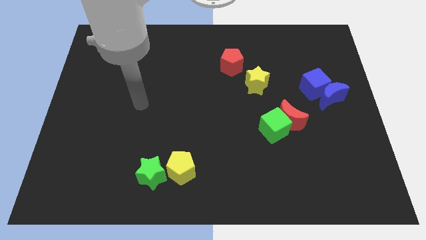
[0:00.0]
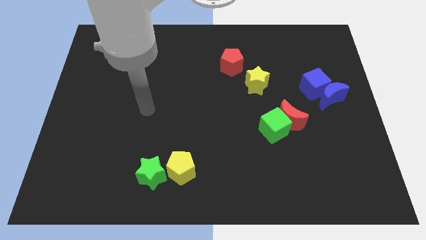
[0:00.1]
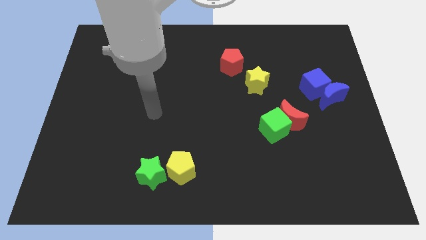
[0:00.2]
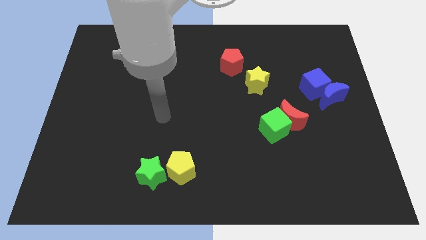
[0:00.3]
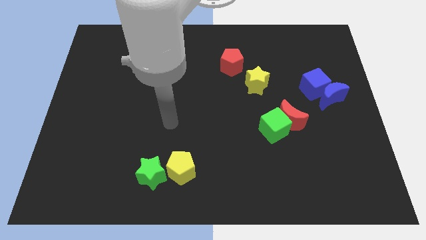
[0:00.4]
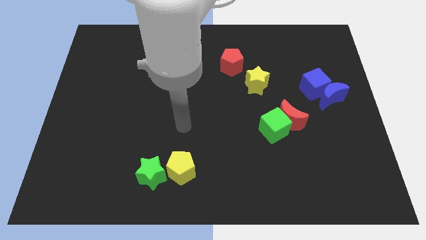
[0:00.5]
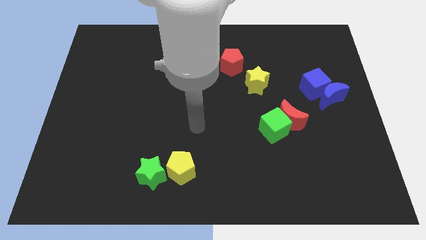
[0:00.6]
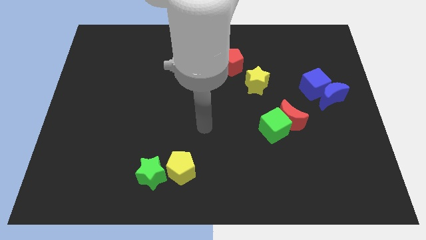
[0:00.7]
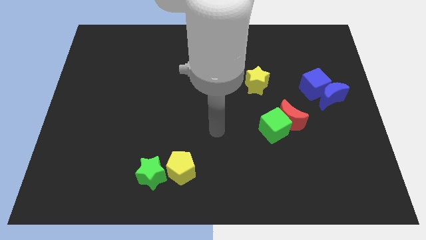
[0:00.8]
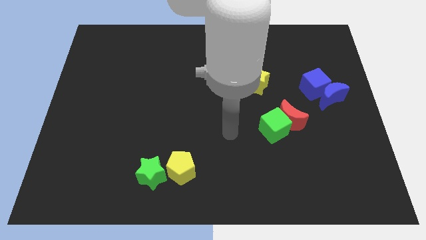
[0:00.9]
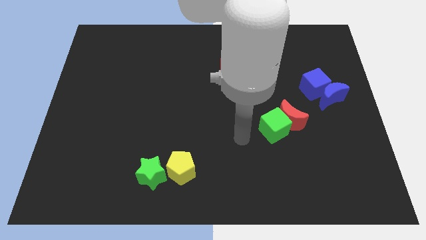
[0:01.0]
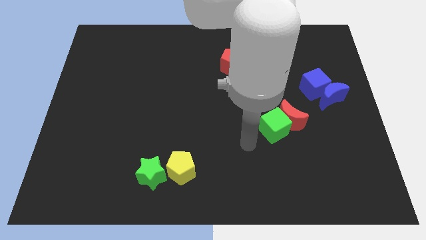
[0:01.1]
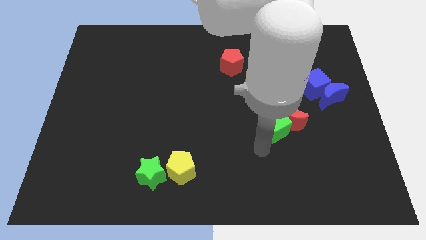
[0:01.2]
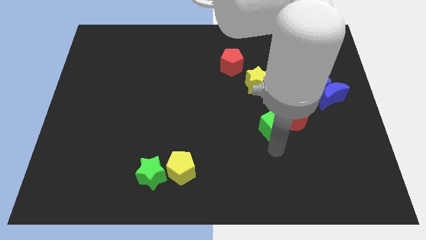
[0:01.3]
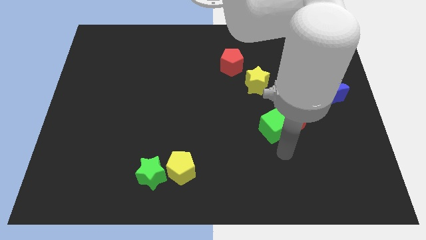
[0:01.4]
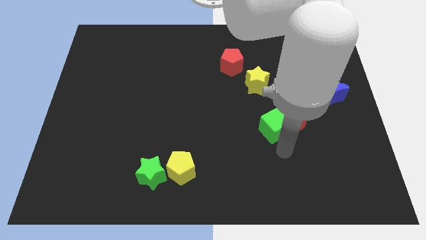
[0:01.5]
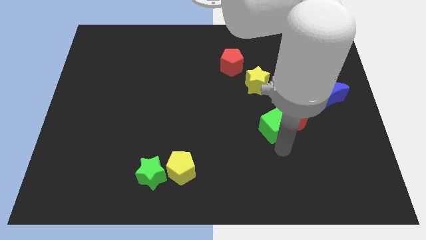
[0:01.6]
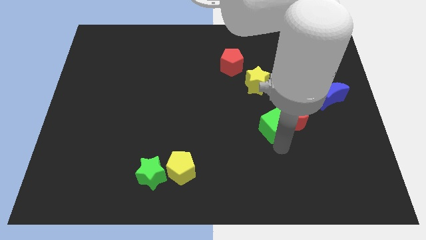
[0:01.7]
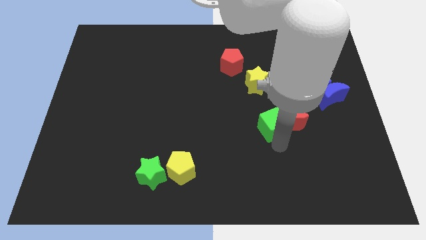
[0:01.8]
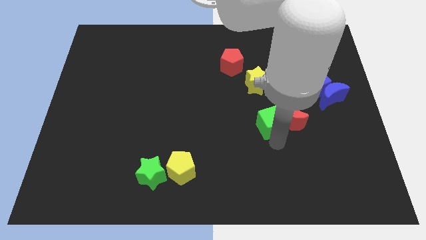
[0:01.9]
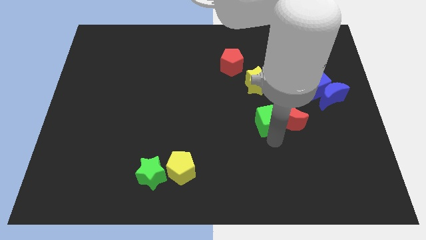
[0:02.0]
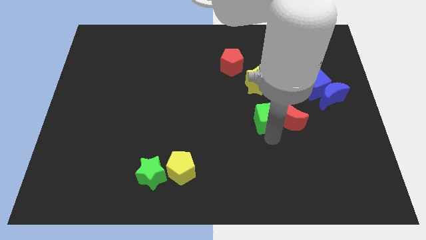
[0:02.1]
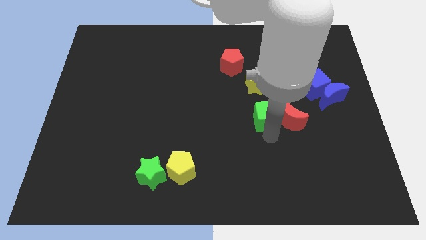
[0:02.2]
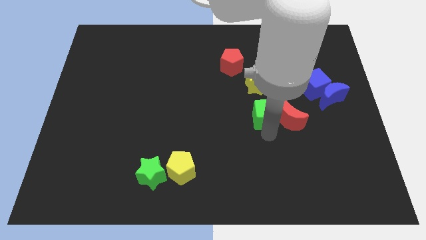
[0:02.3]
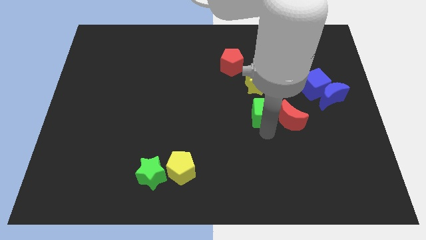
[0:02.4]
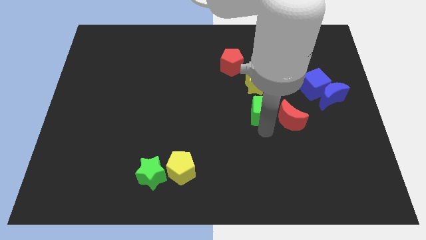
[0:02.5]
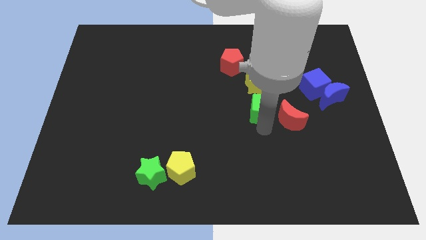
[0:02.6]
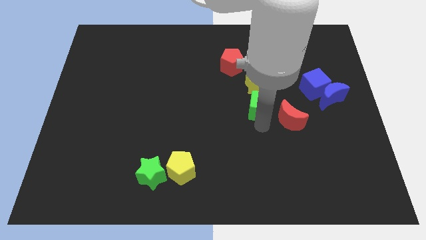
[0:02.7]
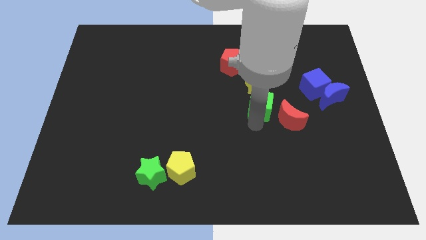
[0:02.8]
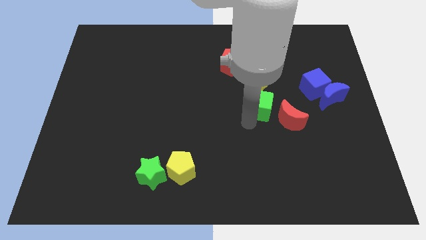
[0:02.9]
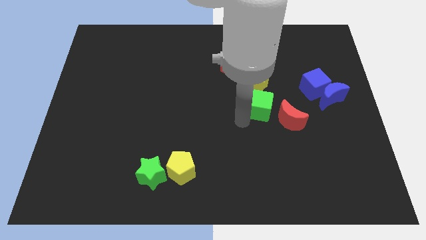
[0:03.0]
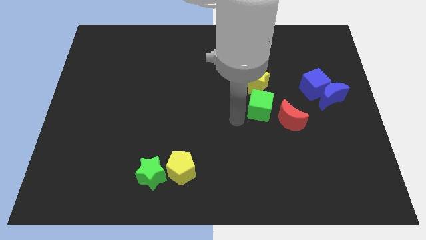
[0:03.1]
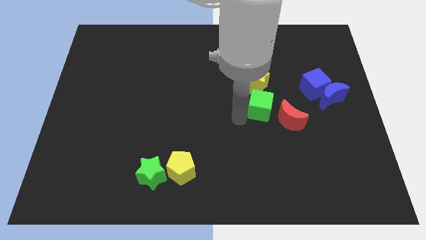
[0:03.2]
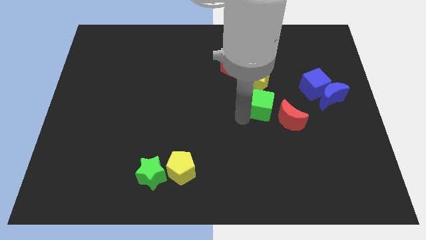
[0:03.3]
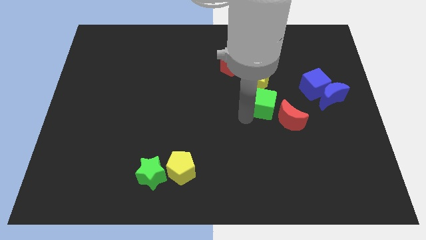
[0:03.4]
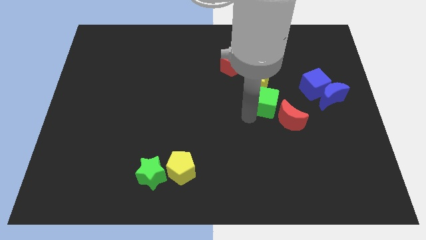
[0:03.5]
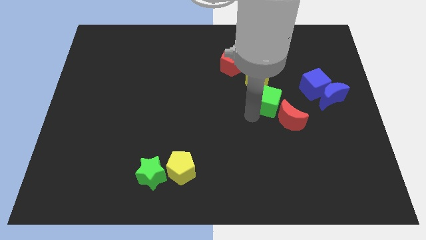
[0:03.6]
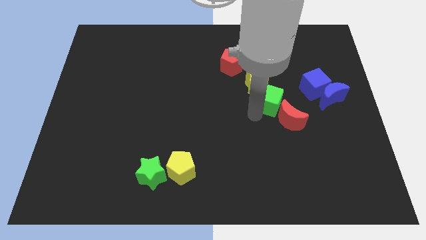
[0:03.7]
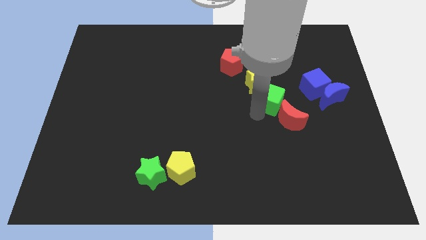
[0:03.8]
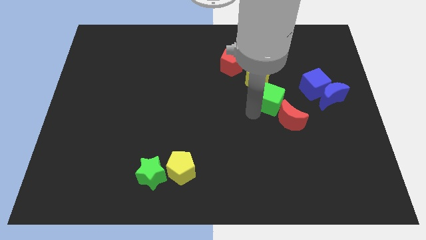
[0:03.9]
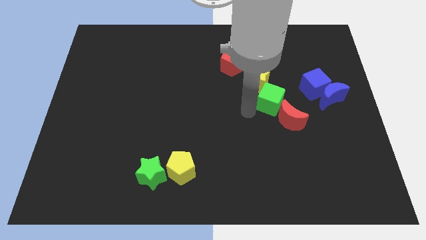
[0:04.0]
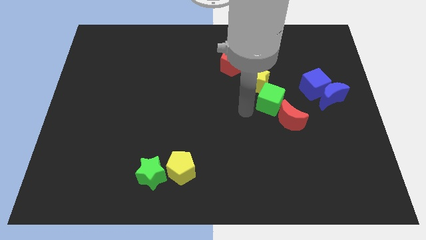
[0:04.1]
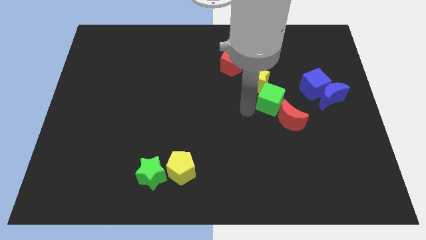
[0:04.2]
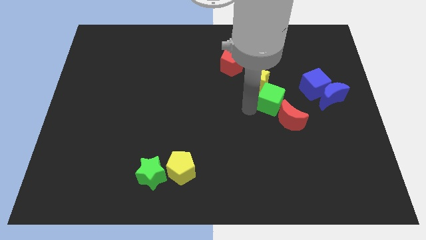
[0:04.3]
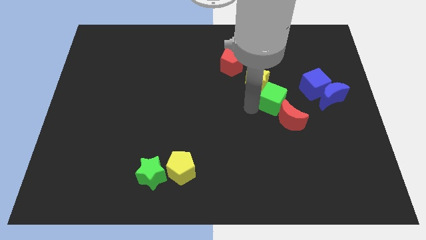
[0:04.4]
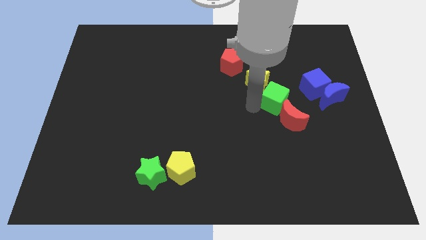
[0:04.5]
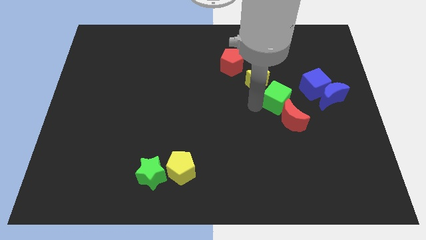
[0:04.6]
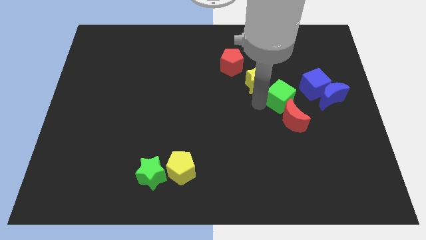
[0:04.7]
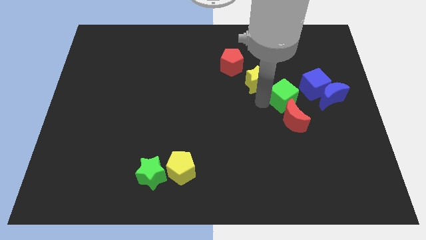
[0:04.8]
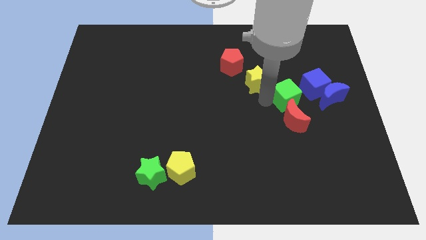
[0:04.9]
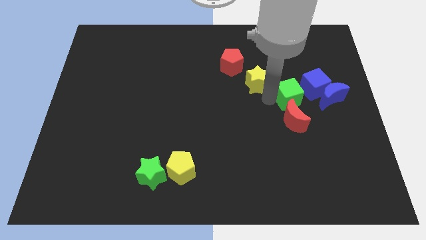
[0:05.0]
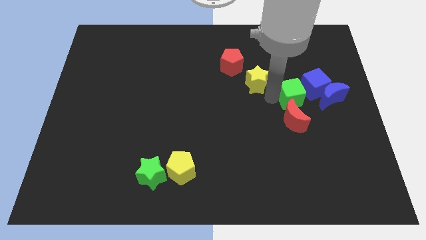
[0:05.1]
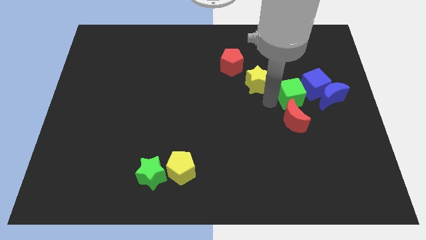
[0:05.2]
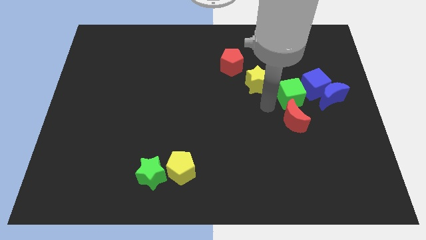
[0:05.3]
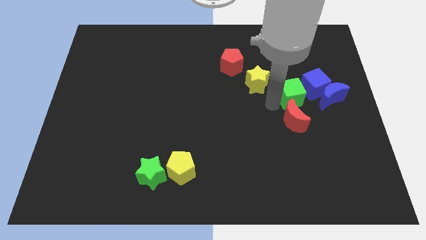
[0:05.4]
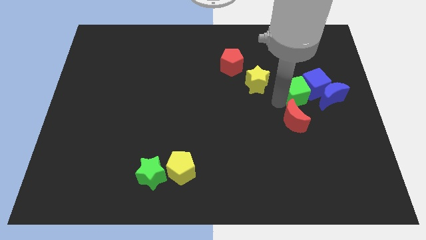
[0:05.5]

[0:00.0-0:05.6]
put the green cube towards the blue cube

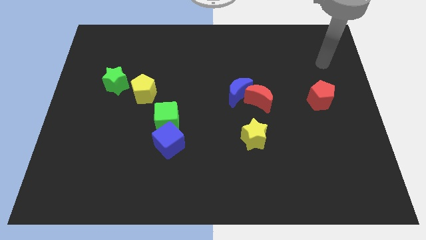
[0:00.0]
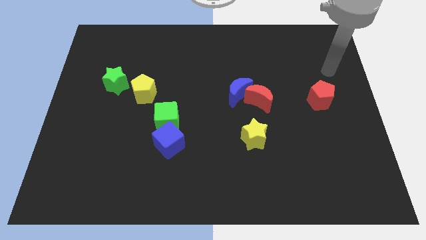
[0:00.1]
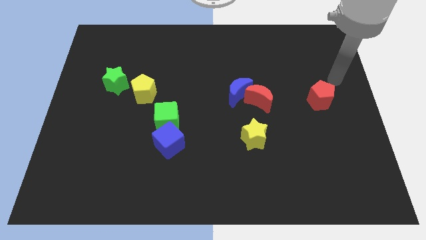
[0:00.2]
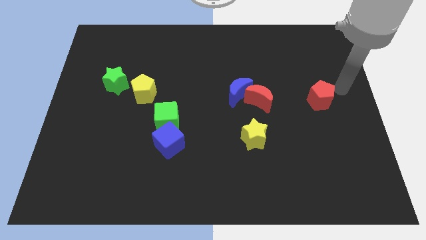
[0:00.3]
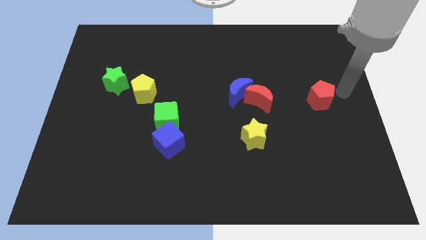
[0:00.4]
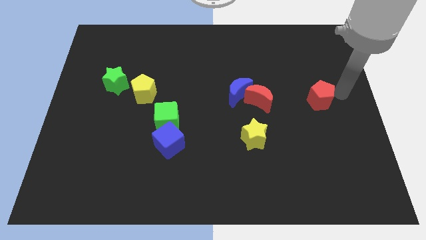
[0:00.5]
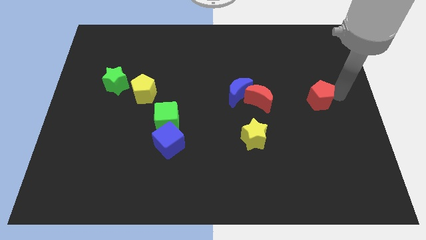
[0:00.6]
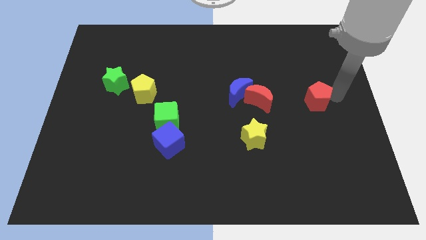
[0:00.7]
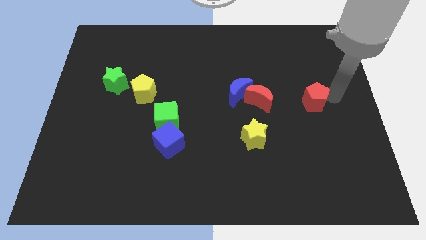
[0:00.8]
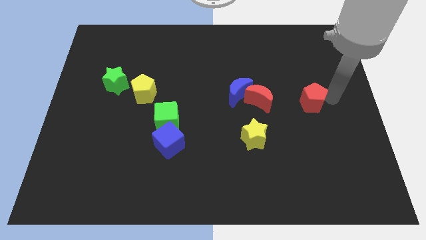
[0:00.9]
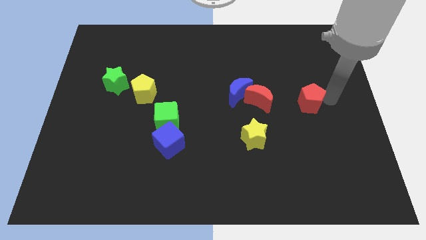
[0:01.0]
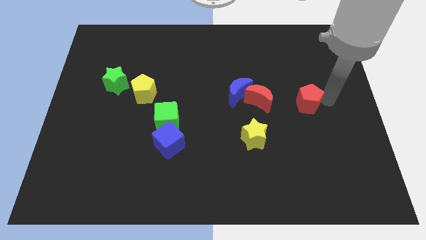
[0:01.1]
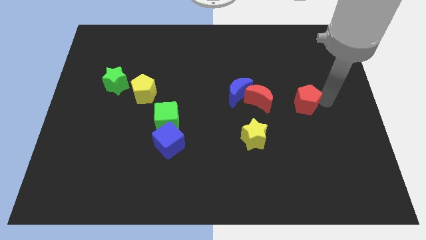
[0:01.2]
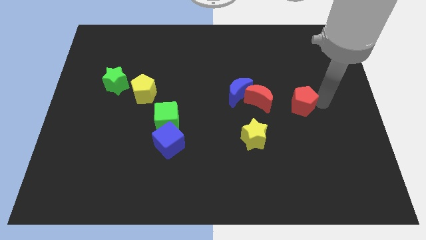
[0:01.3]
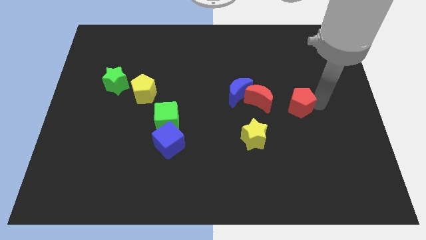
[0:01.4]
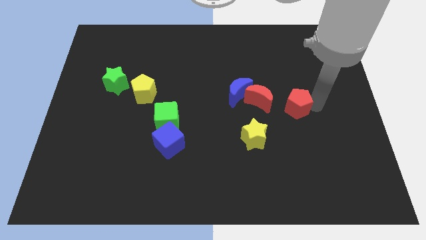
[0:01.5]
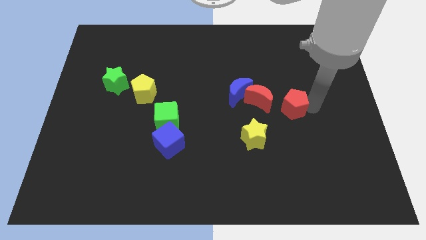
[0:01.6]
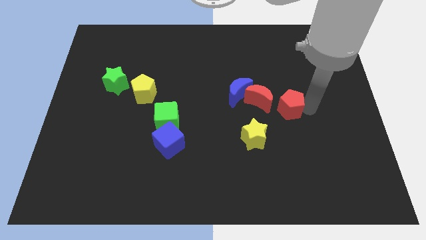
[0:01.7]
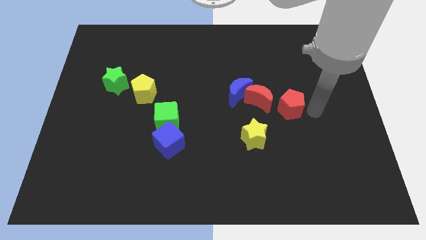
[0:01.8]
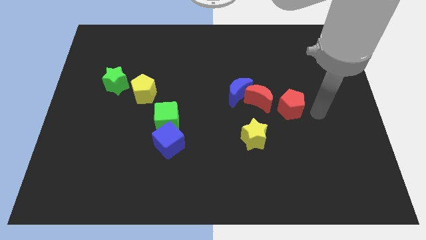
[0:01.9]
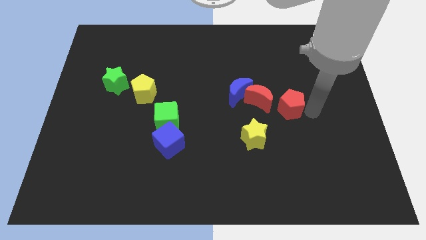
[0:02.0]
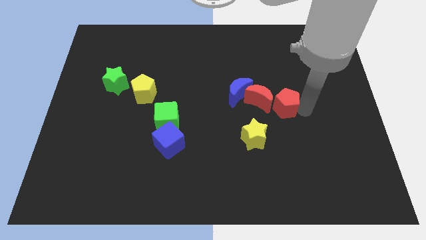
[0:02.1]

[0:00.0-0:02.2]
put the red pentagon close to the red moon
